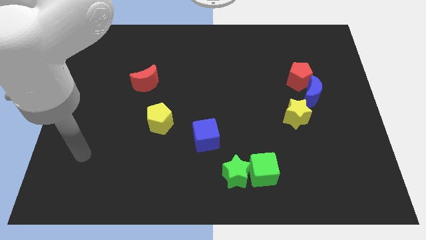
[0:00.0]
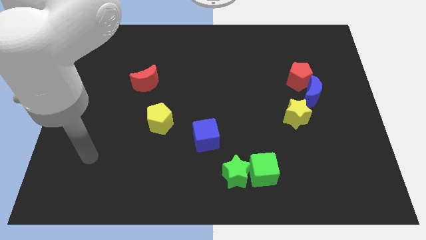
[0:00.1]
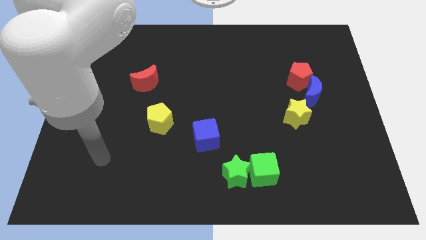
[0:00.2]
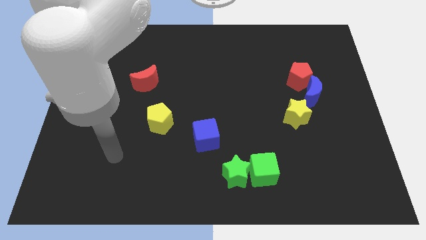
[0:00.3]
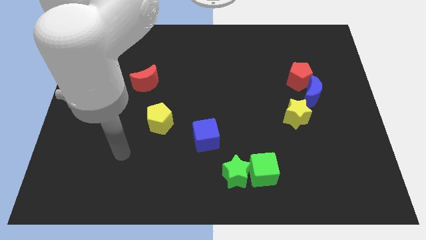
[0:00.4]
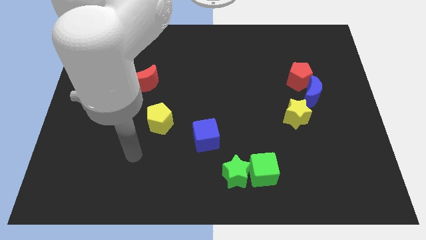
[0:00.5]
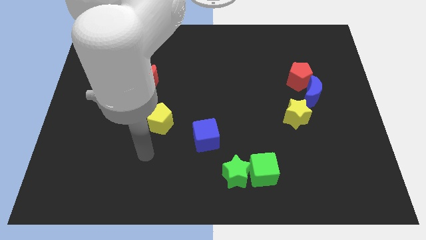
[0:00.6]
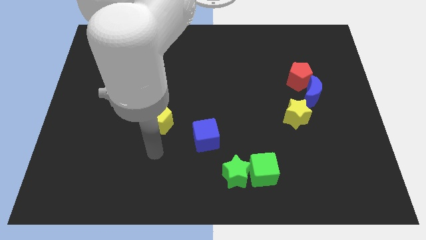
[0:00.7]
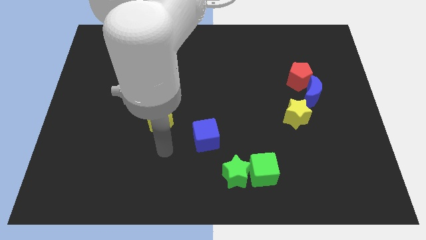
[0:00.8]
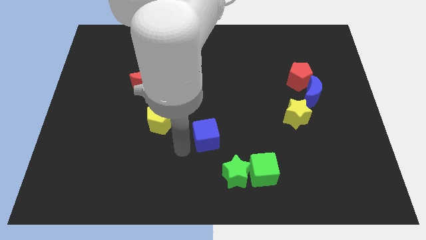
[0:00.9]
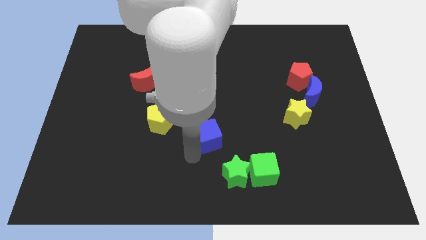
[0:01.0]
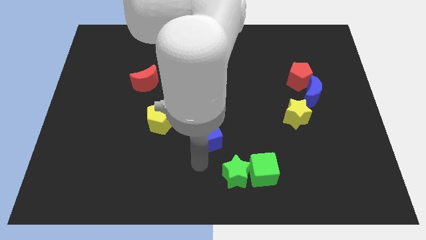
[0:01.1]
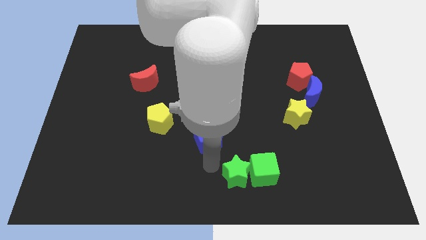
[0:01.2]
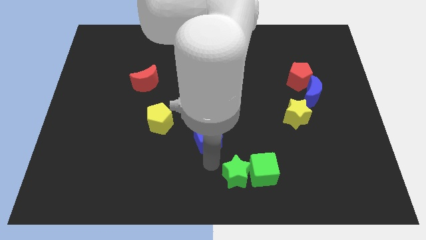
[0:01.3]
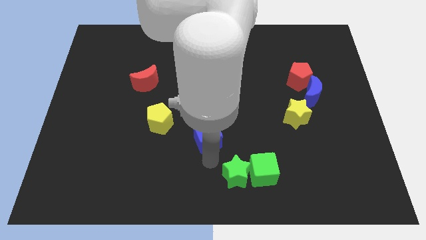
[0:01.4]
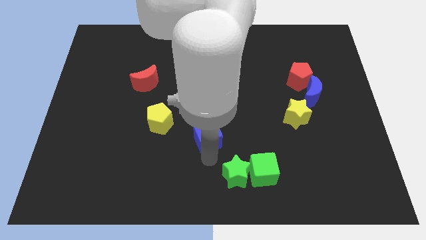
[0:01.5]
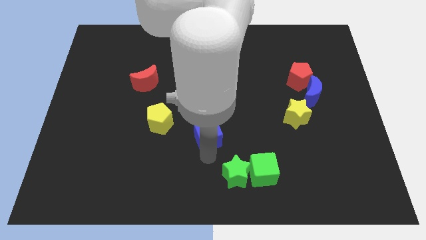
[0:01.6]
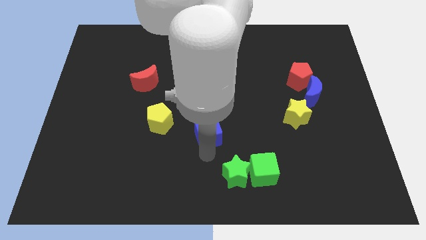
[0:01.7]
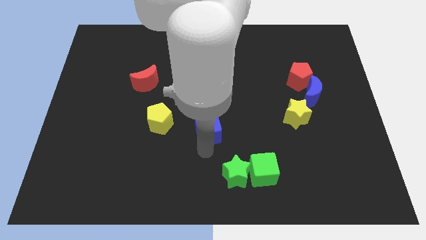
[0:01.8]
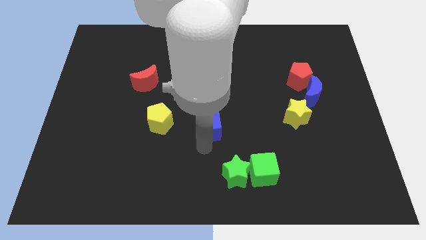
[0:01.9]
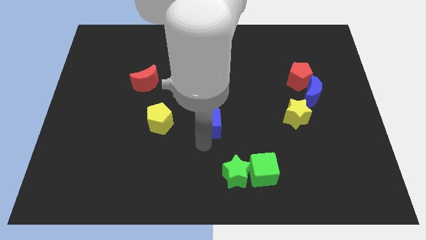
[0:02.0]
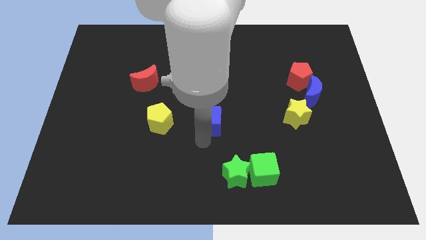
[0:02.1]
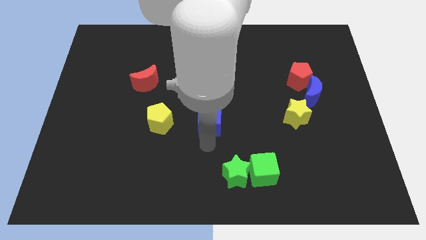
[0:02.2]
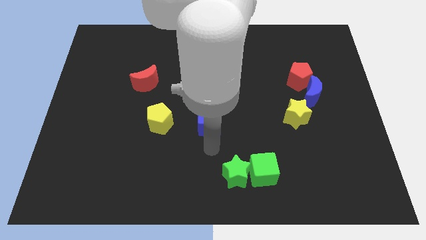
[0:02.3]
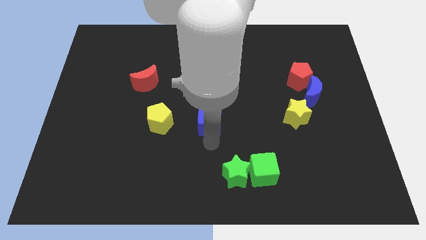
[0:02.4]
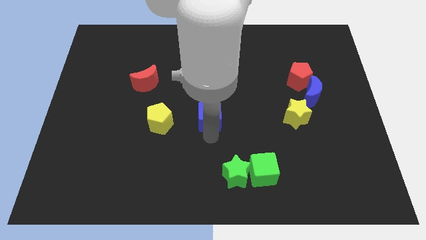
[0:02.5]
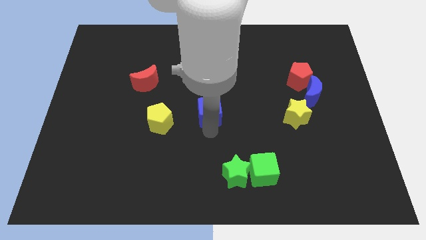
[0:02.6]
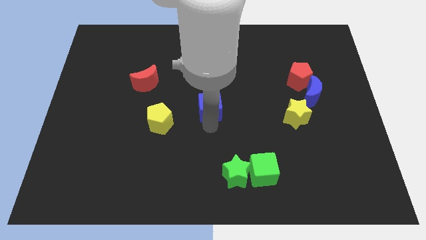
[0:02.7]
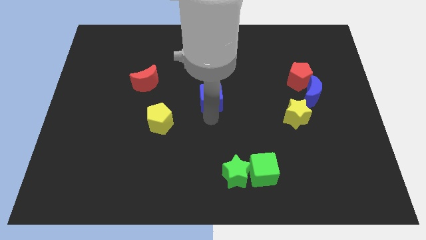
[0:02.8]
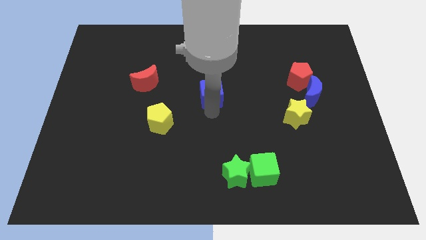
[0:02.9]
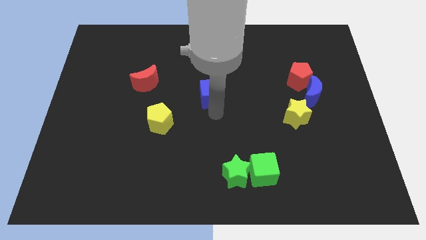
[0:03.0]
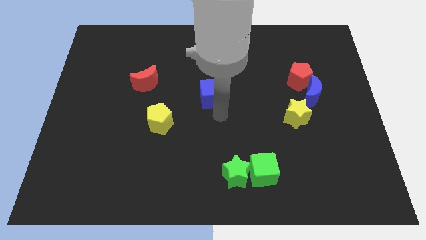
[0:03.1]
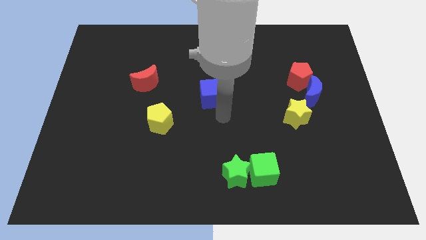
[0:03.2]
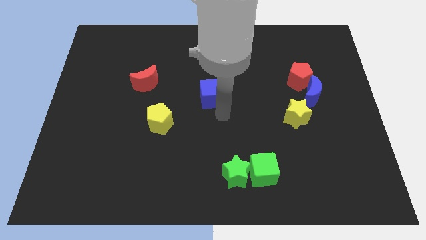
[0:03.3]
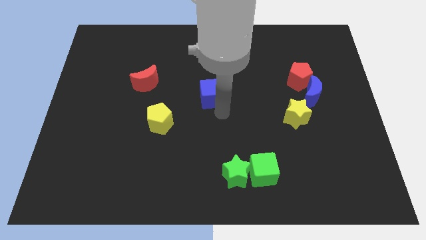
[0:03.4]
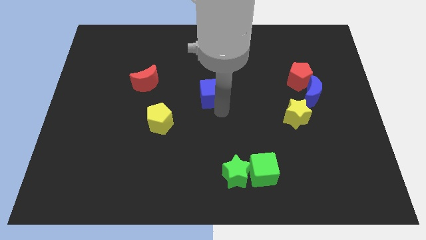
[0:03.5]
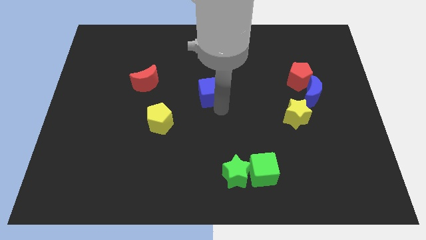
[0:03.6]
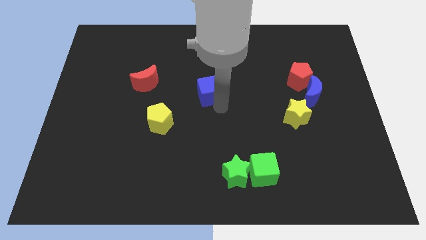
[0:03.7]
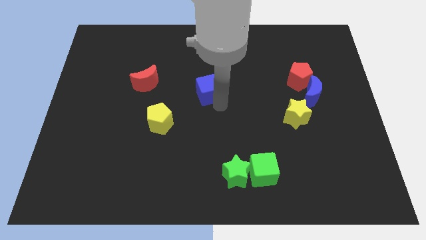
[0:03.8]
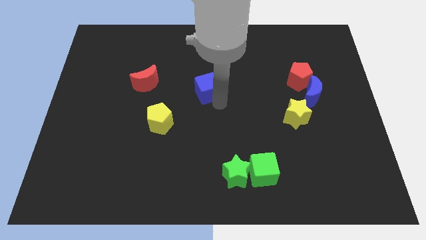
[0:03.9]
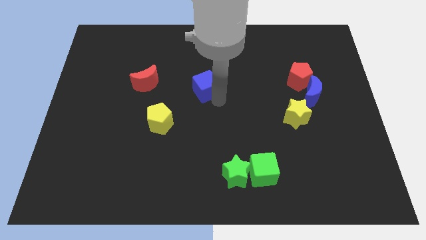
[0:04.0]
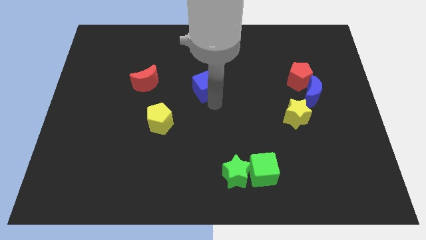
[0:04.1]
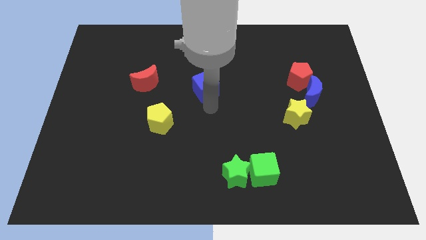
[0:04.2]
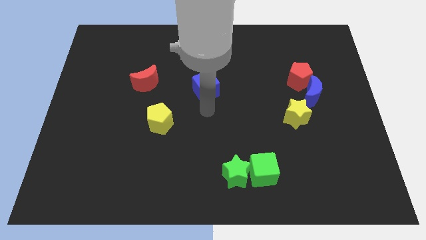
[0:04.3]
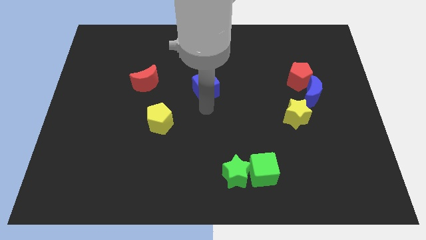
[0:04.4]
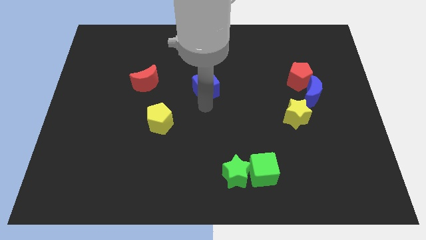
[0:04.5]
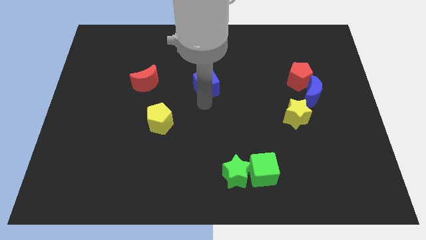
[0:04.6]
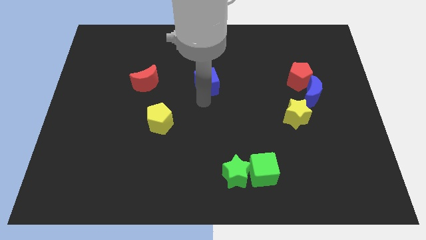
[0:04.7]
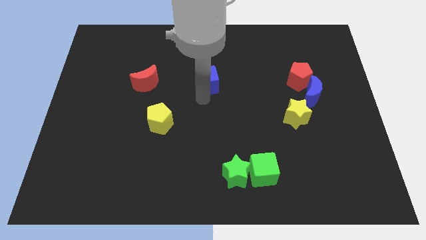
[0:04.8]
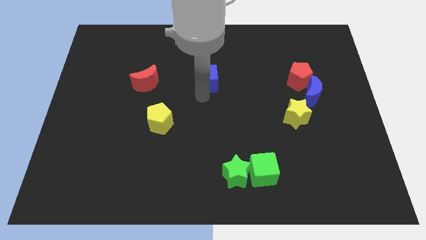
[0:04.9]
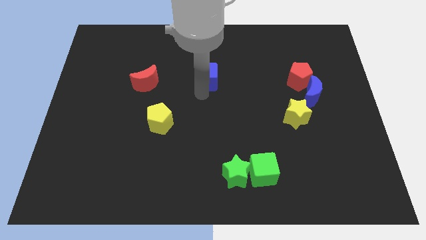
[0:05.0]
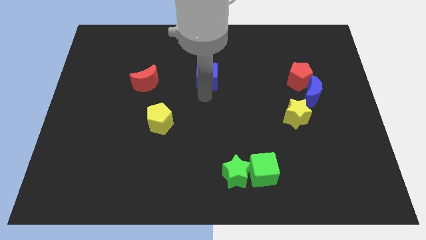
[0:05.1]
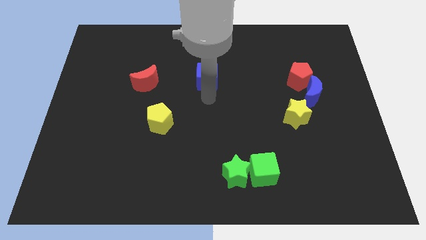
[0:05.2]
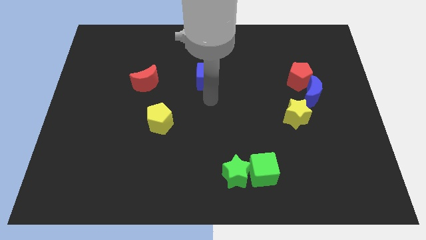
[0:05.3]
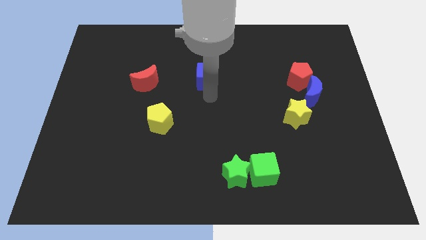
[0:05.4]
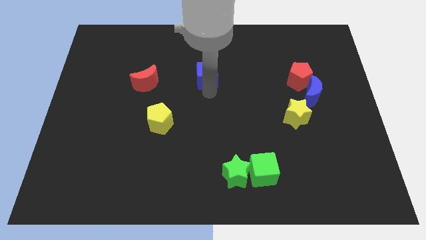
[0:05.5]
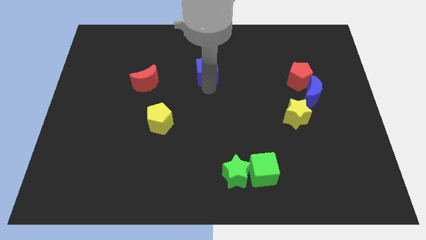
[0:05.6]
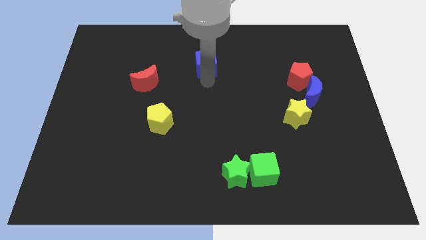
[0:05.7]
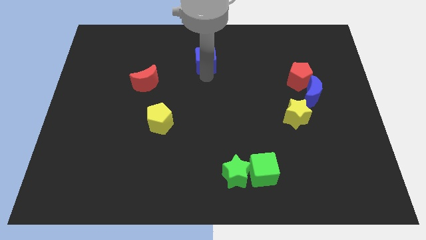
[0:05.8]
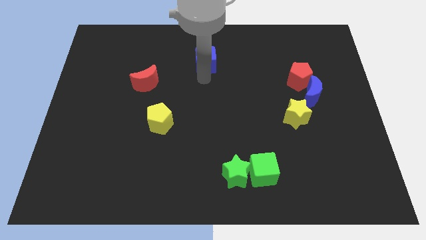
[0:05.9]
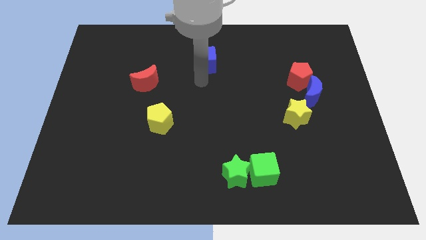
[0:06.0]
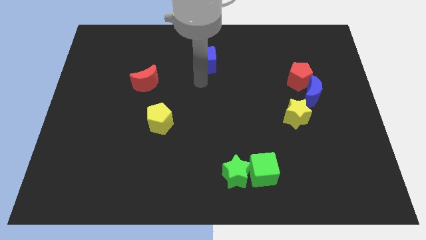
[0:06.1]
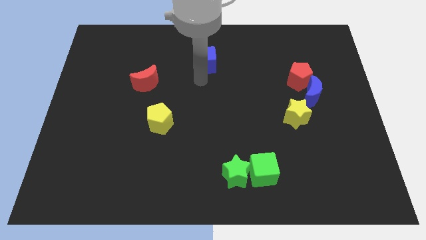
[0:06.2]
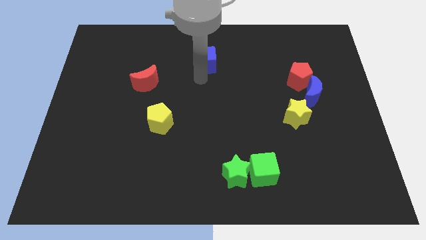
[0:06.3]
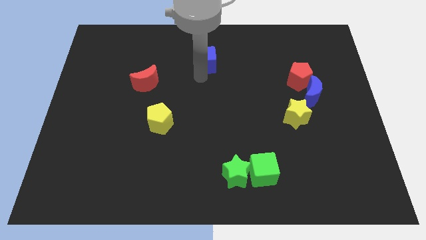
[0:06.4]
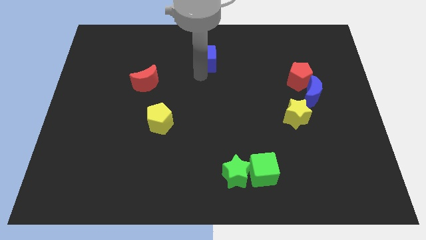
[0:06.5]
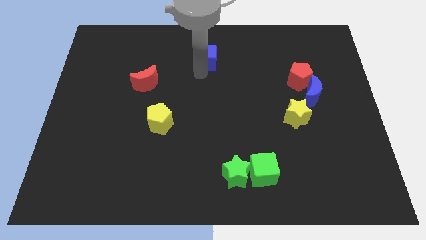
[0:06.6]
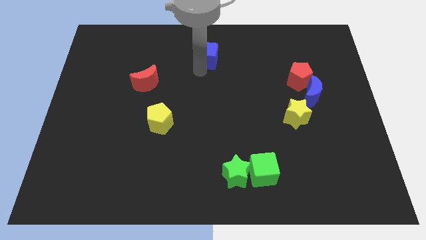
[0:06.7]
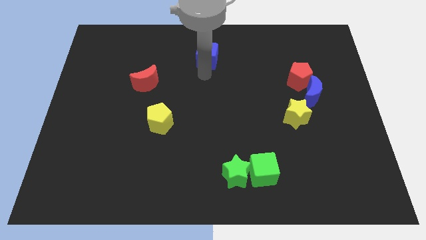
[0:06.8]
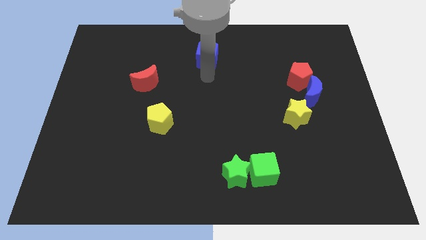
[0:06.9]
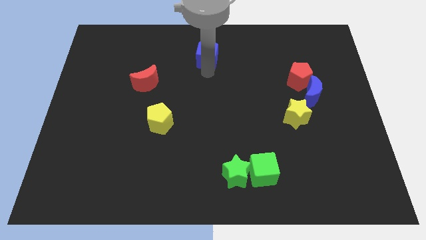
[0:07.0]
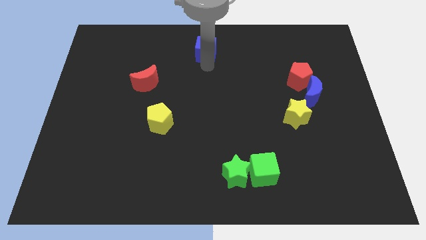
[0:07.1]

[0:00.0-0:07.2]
move the blue cube to the top side
